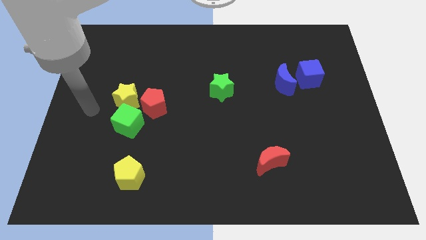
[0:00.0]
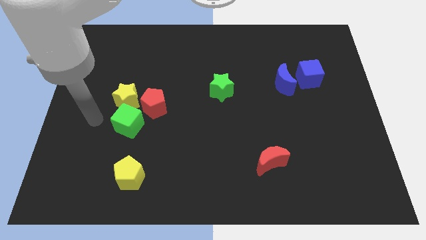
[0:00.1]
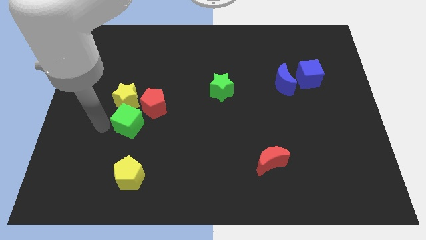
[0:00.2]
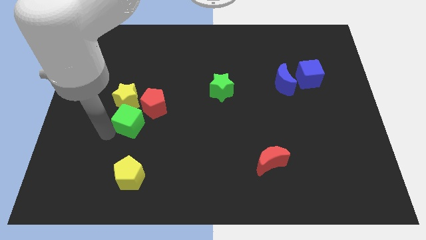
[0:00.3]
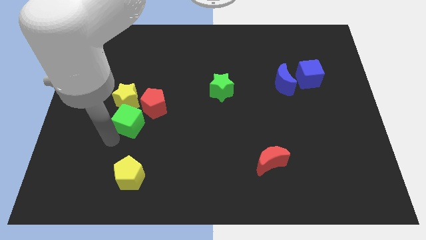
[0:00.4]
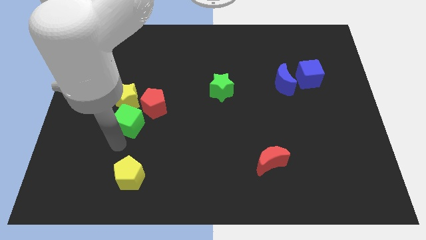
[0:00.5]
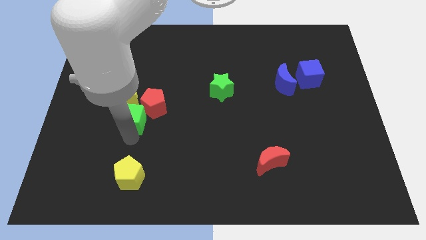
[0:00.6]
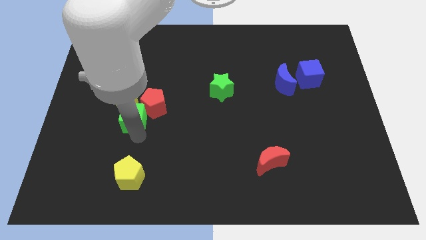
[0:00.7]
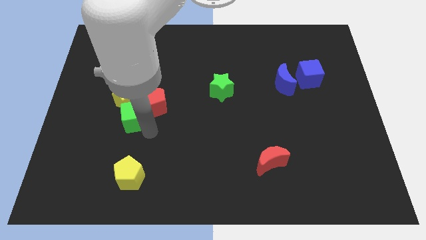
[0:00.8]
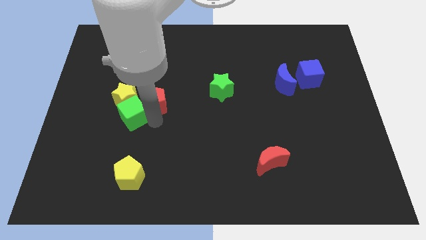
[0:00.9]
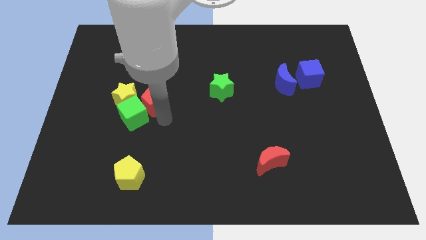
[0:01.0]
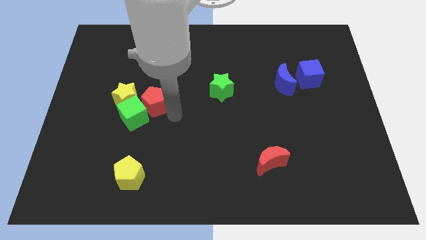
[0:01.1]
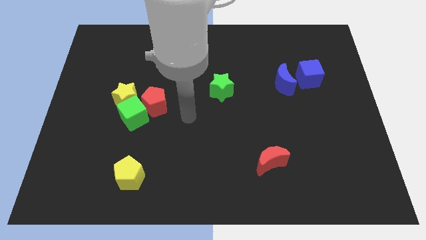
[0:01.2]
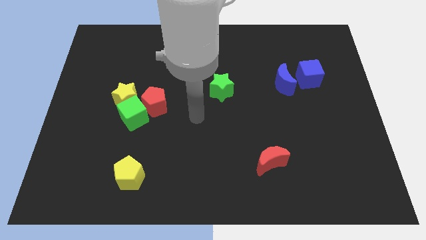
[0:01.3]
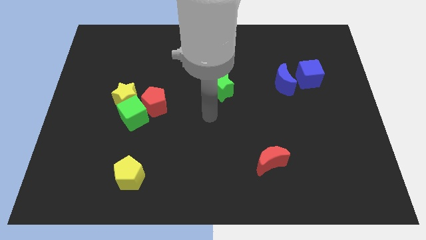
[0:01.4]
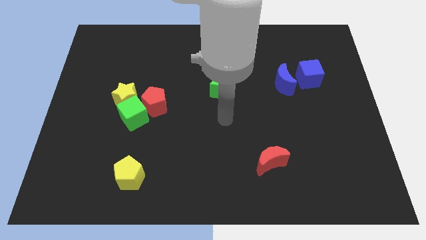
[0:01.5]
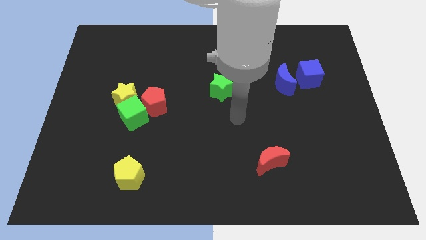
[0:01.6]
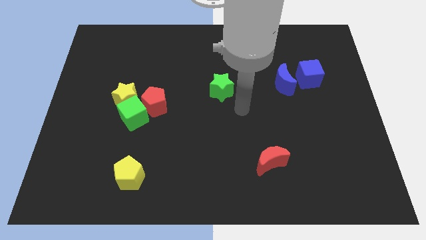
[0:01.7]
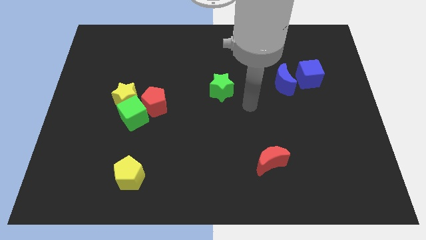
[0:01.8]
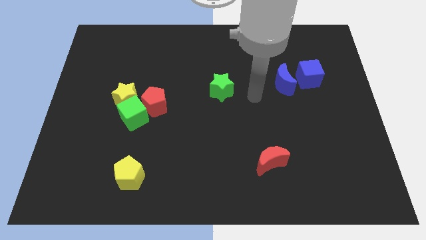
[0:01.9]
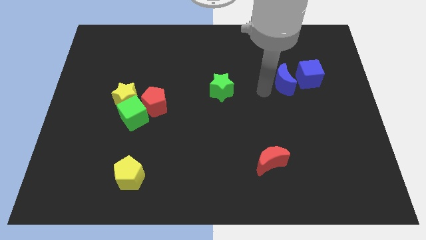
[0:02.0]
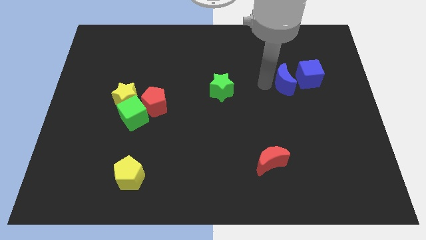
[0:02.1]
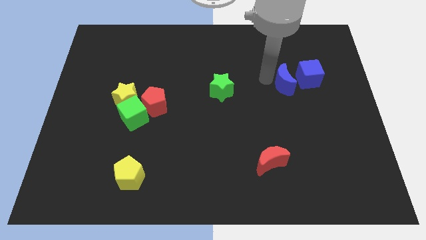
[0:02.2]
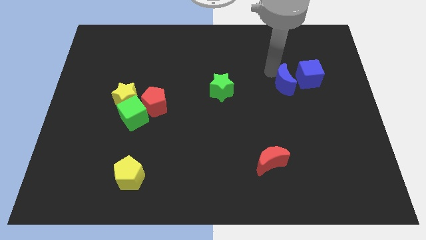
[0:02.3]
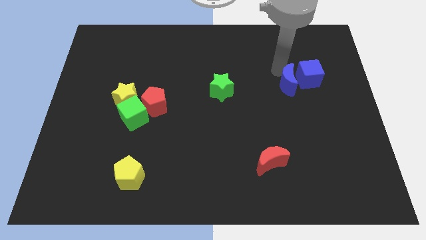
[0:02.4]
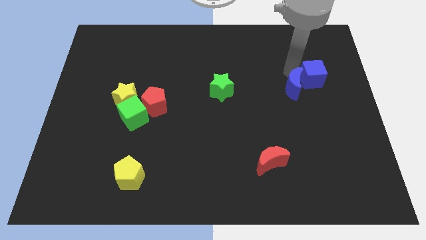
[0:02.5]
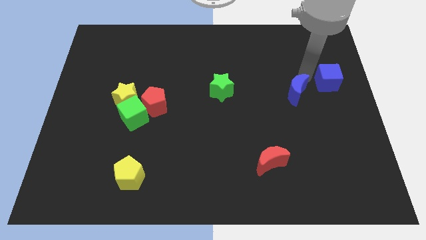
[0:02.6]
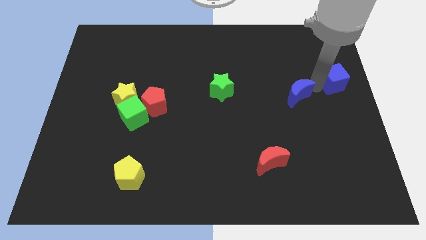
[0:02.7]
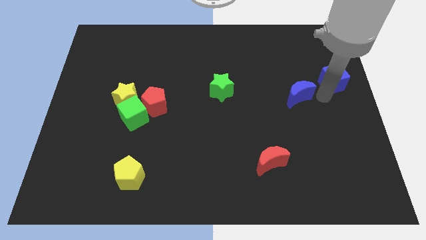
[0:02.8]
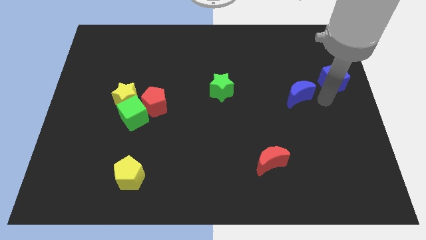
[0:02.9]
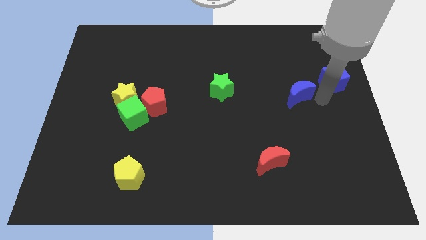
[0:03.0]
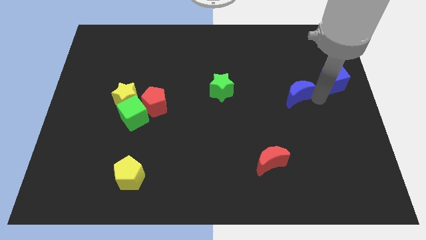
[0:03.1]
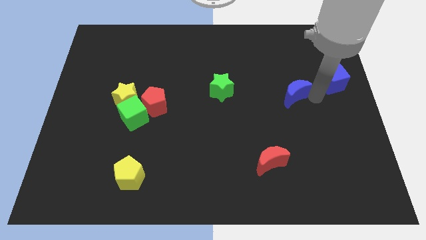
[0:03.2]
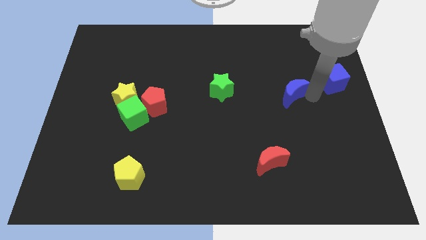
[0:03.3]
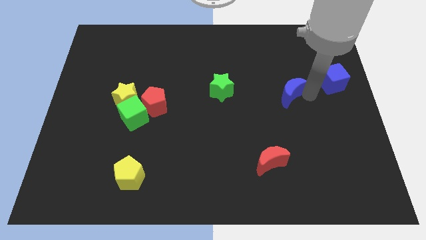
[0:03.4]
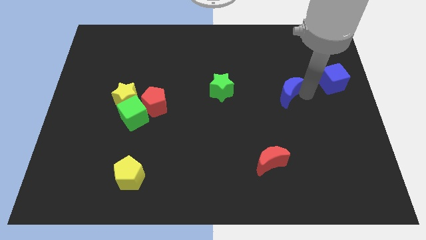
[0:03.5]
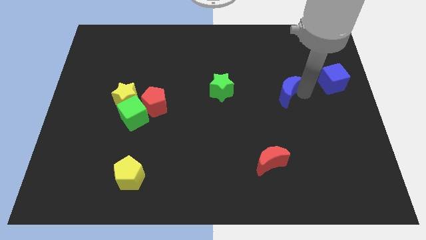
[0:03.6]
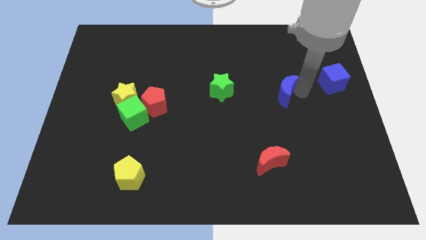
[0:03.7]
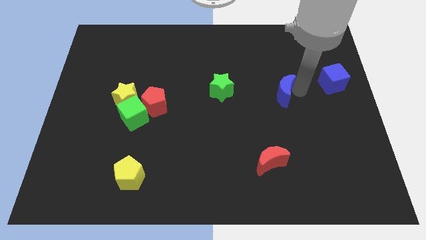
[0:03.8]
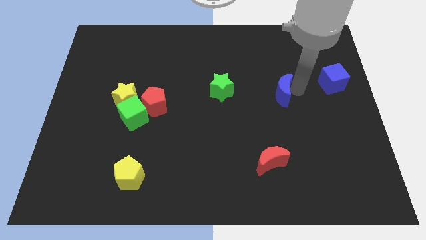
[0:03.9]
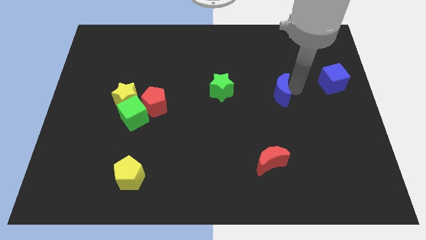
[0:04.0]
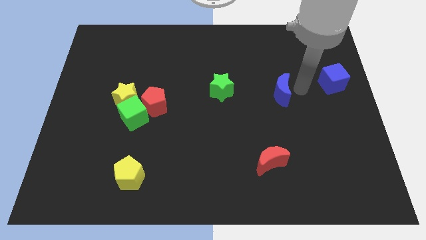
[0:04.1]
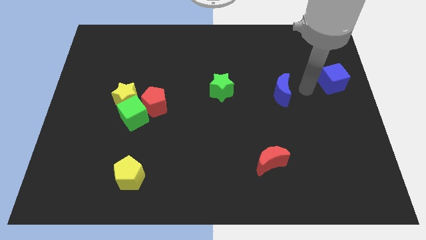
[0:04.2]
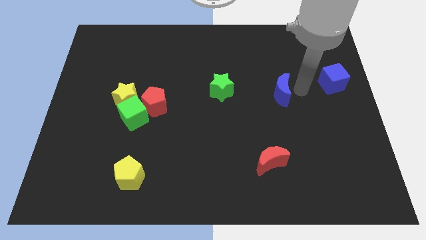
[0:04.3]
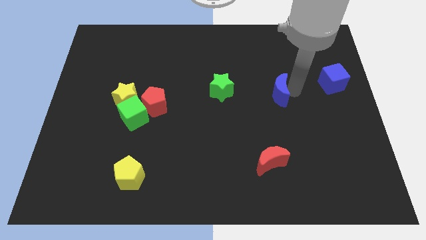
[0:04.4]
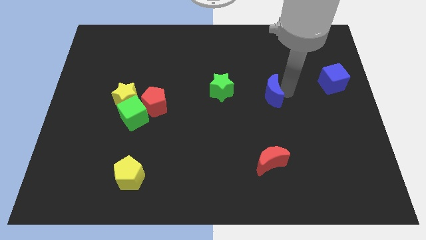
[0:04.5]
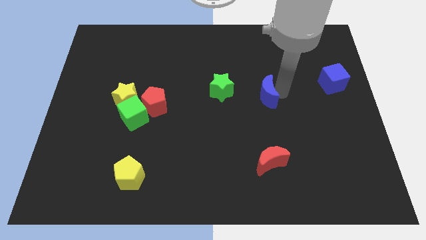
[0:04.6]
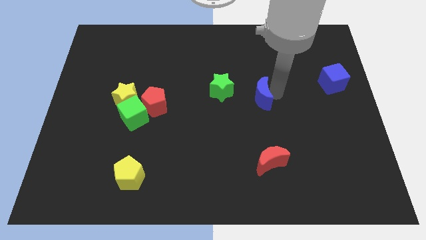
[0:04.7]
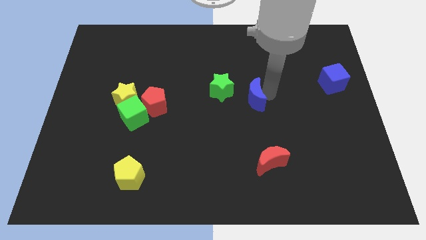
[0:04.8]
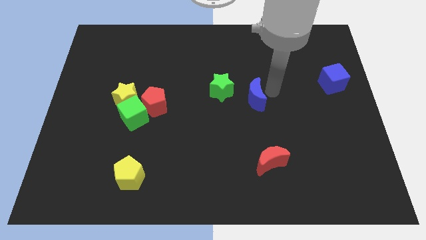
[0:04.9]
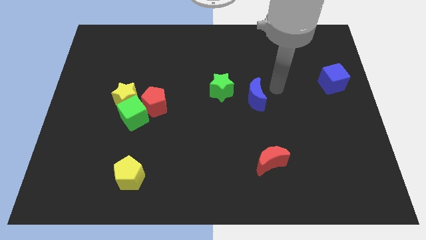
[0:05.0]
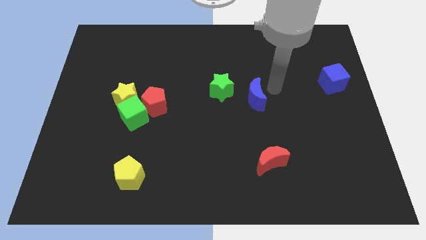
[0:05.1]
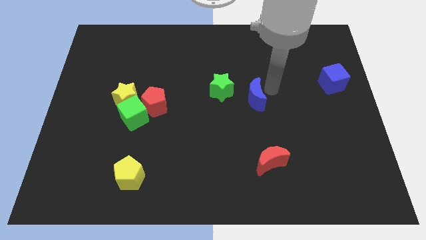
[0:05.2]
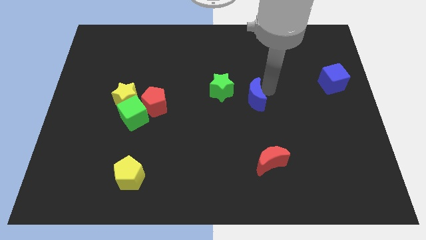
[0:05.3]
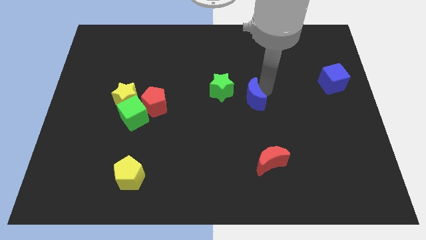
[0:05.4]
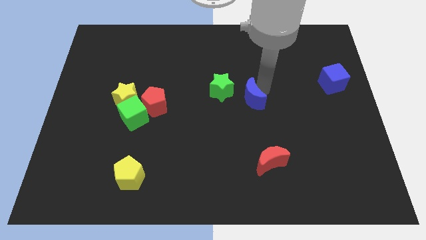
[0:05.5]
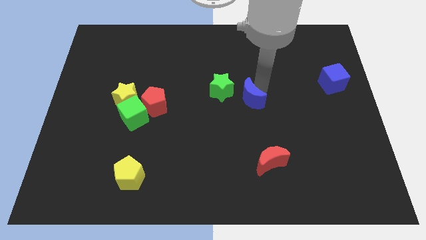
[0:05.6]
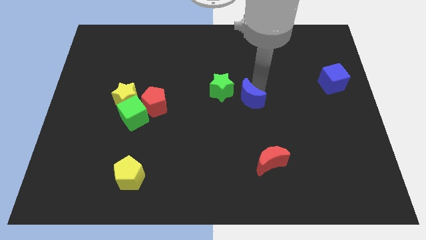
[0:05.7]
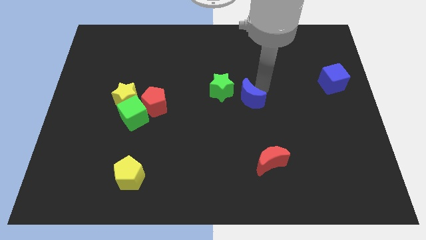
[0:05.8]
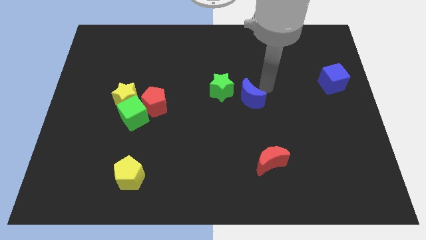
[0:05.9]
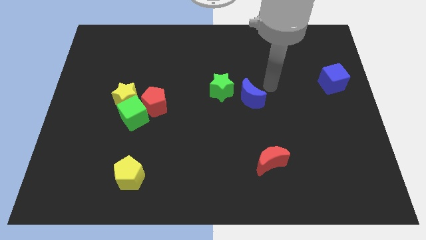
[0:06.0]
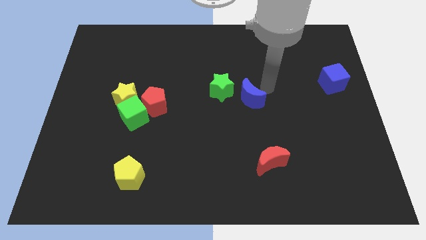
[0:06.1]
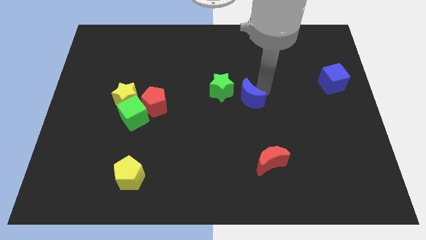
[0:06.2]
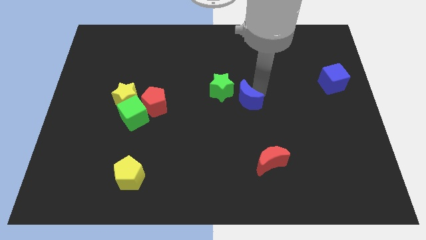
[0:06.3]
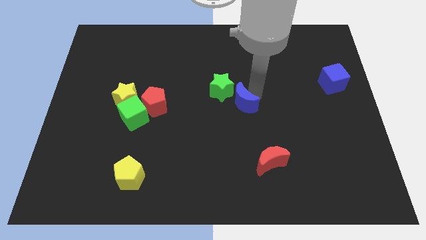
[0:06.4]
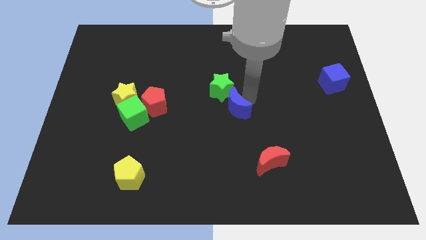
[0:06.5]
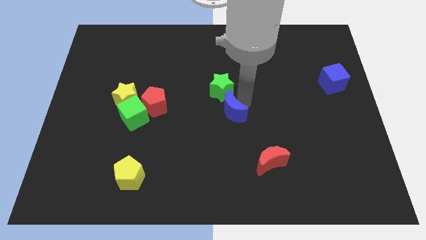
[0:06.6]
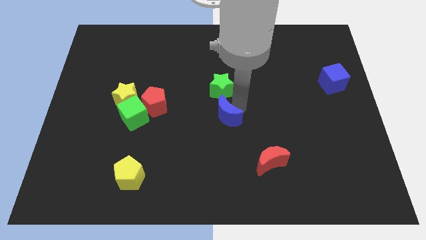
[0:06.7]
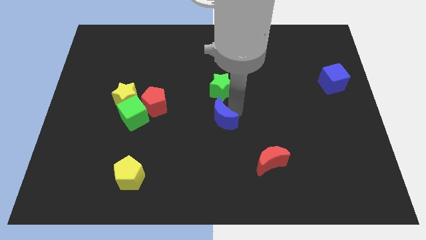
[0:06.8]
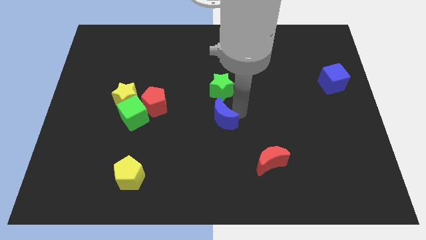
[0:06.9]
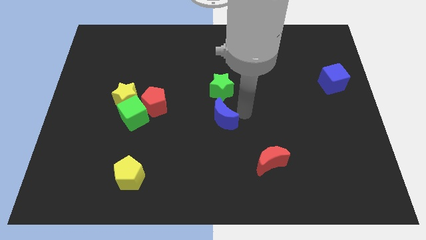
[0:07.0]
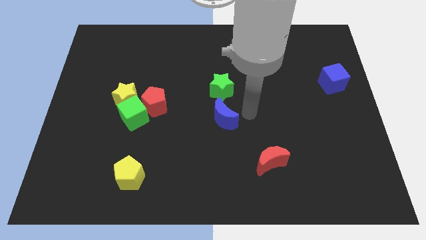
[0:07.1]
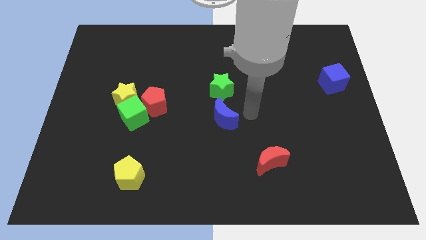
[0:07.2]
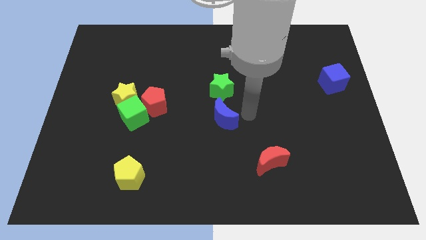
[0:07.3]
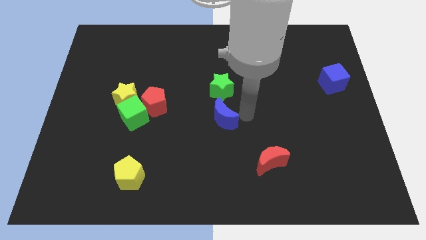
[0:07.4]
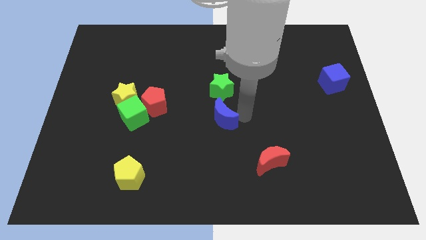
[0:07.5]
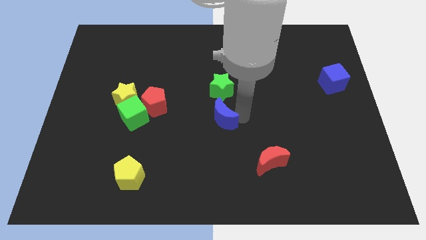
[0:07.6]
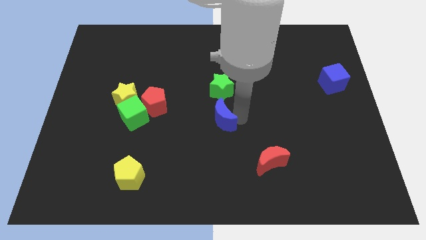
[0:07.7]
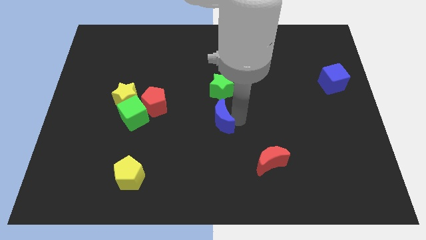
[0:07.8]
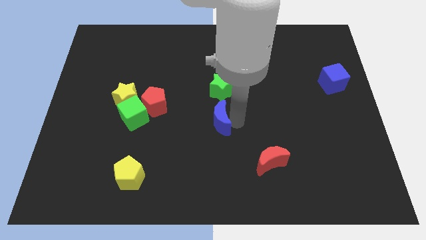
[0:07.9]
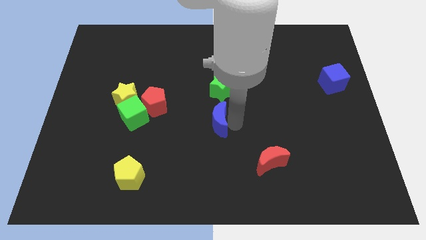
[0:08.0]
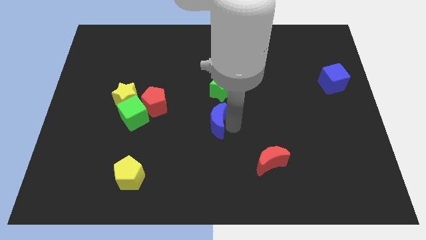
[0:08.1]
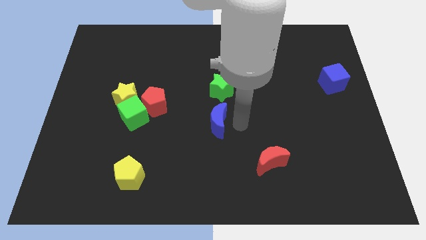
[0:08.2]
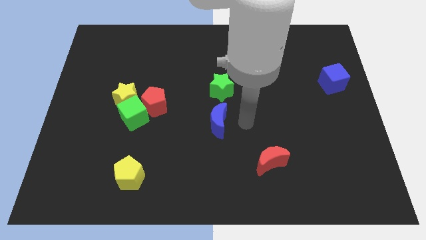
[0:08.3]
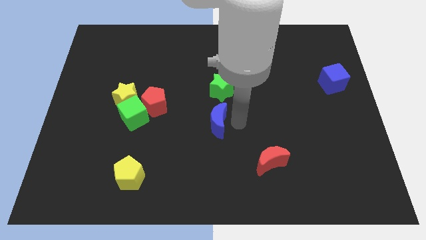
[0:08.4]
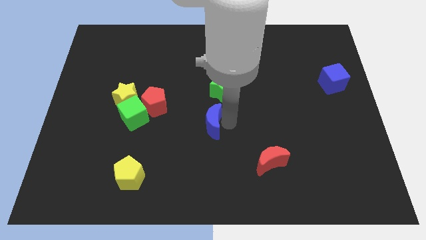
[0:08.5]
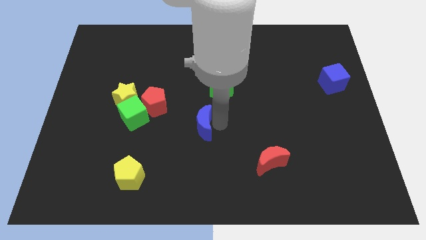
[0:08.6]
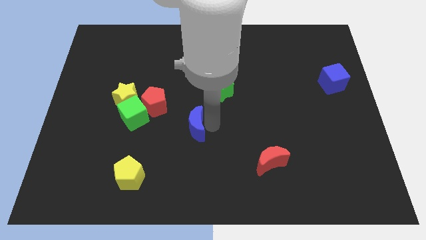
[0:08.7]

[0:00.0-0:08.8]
move the blue moon diagonally down and to the right of the red pentagon
